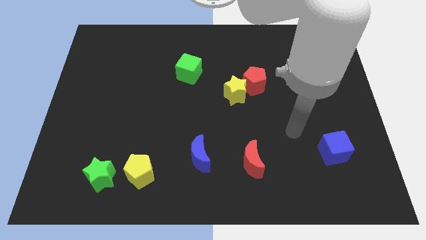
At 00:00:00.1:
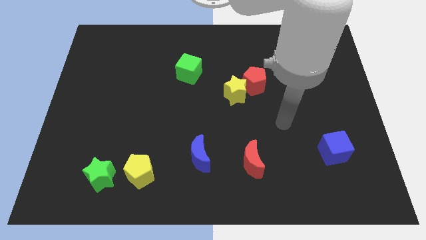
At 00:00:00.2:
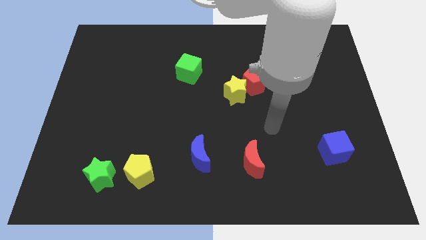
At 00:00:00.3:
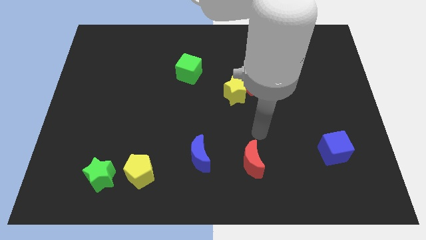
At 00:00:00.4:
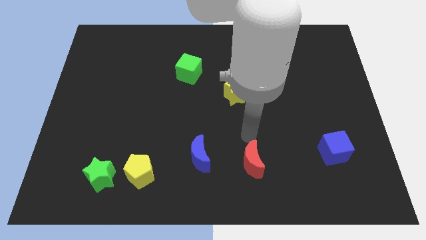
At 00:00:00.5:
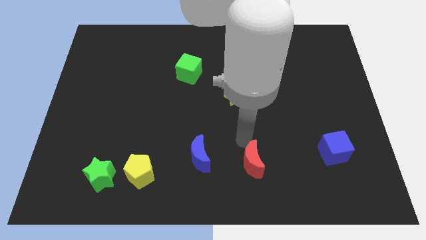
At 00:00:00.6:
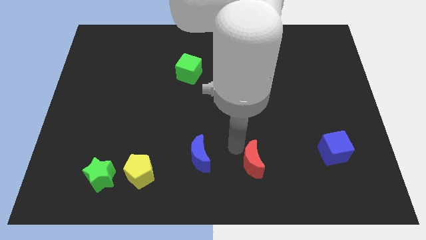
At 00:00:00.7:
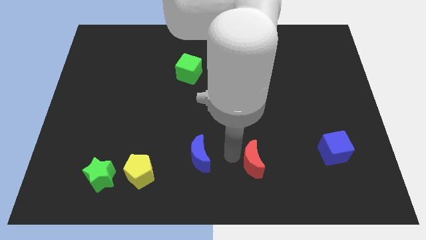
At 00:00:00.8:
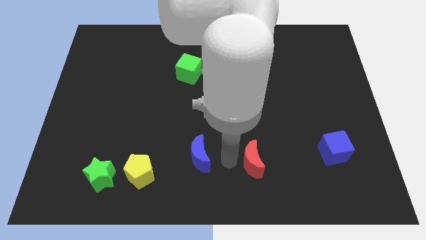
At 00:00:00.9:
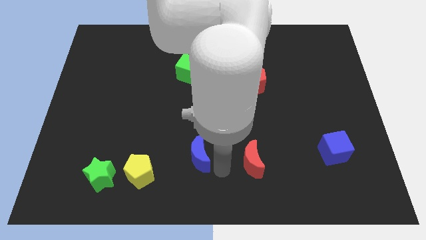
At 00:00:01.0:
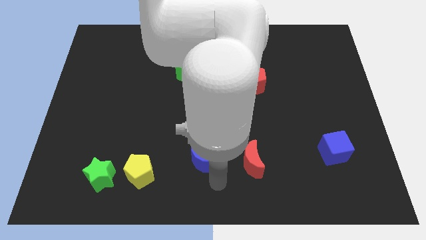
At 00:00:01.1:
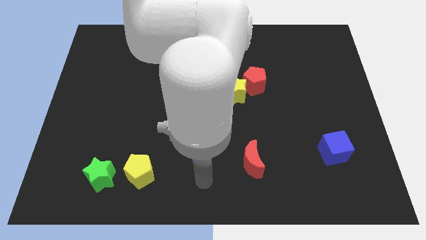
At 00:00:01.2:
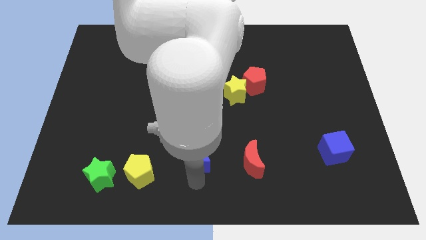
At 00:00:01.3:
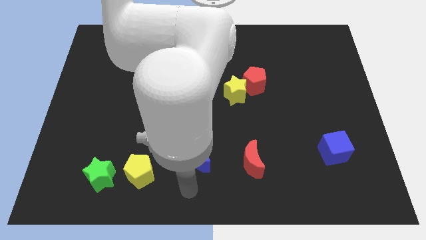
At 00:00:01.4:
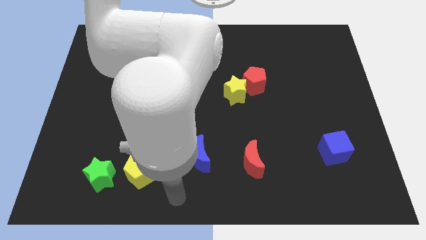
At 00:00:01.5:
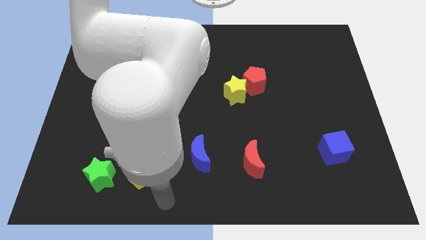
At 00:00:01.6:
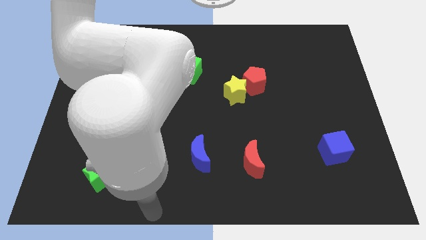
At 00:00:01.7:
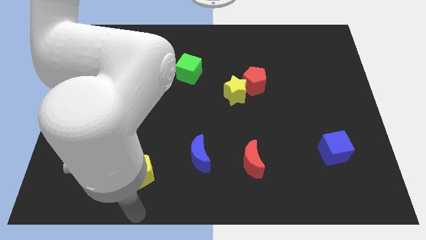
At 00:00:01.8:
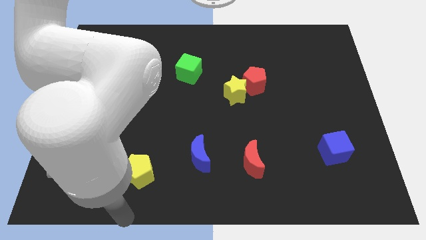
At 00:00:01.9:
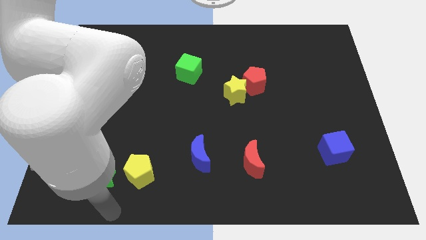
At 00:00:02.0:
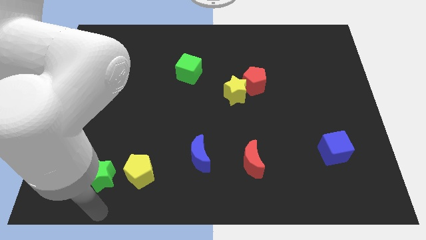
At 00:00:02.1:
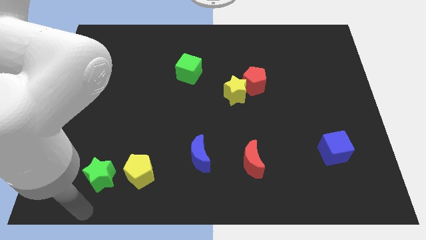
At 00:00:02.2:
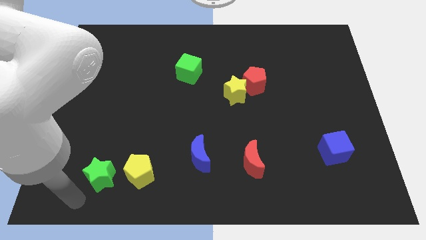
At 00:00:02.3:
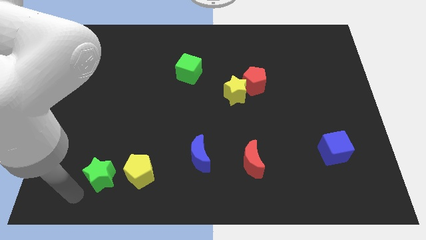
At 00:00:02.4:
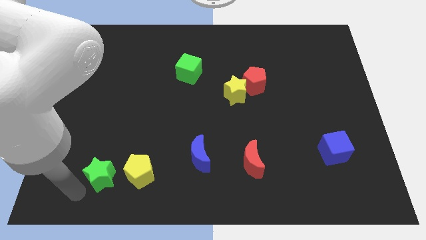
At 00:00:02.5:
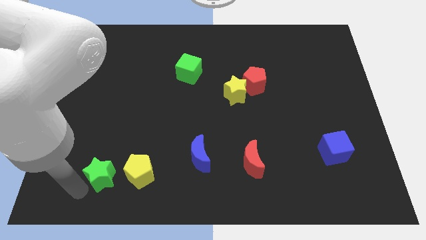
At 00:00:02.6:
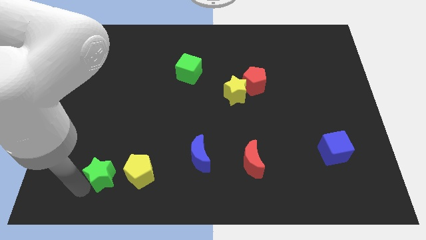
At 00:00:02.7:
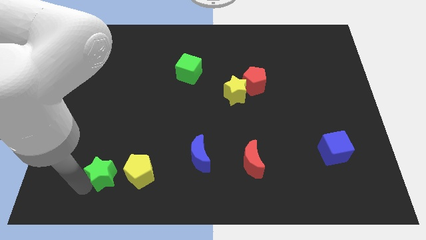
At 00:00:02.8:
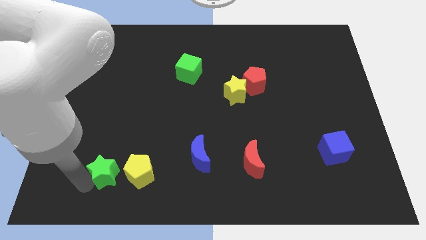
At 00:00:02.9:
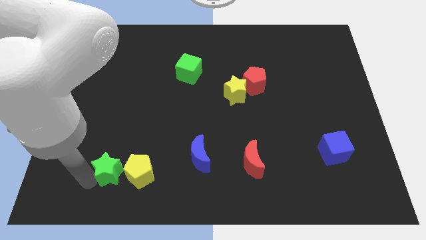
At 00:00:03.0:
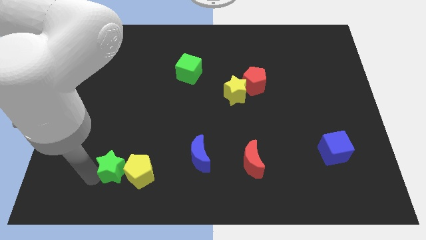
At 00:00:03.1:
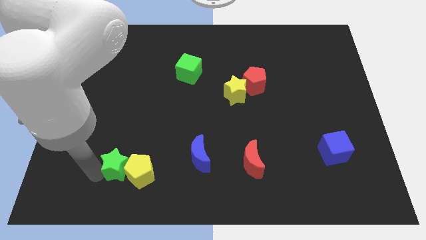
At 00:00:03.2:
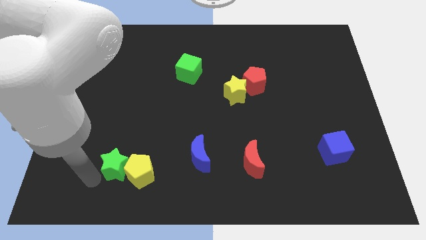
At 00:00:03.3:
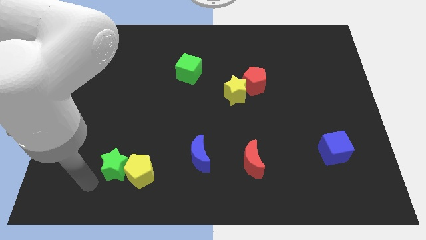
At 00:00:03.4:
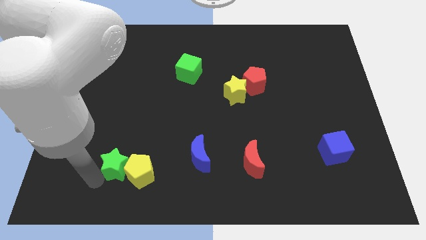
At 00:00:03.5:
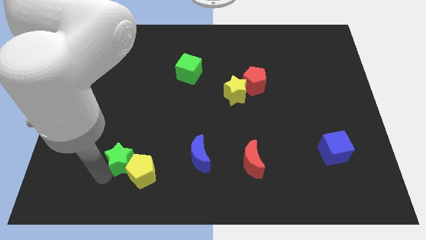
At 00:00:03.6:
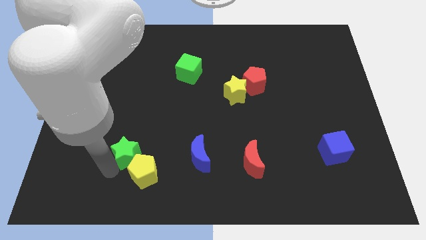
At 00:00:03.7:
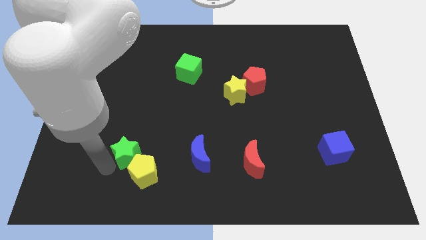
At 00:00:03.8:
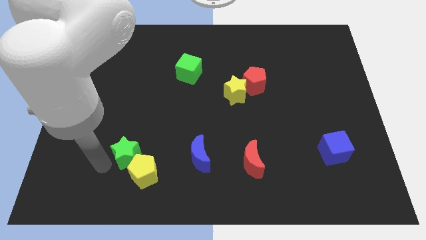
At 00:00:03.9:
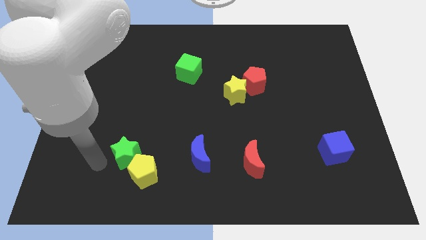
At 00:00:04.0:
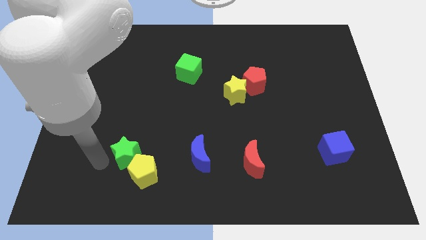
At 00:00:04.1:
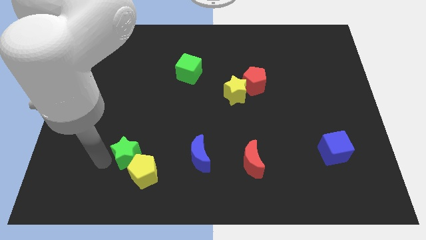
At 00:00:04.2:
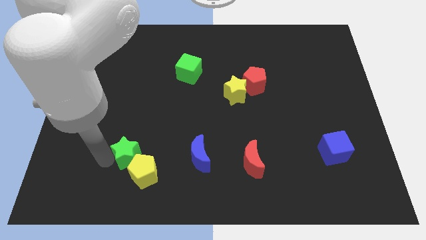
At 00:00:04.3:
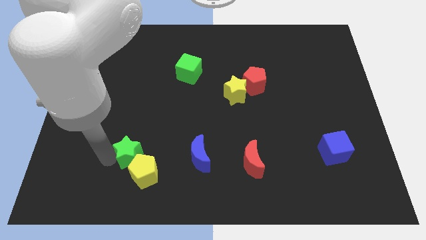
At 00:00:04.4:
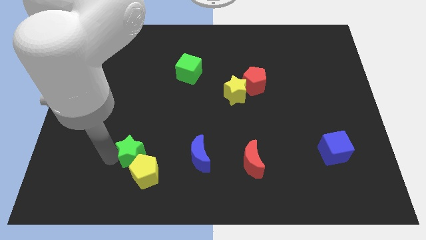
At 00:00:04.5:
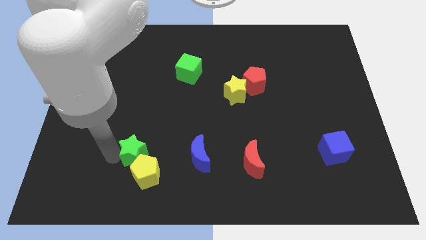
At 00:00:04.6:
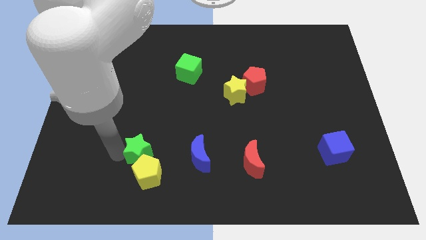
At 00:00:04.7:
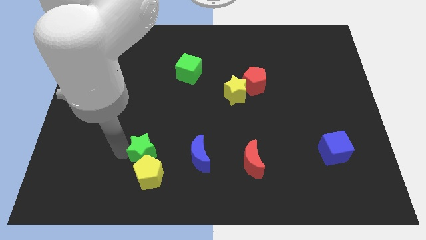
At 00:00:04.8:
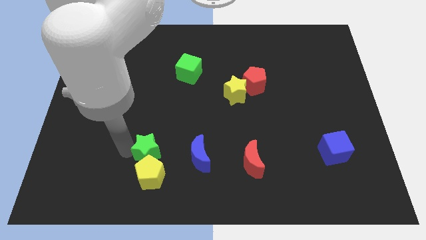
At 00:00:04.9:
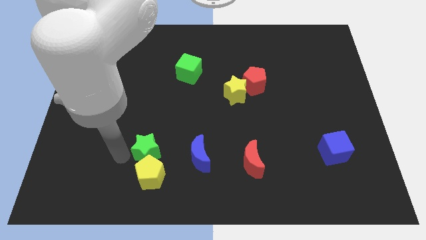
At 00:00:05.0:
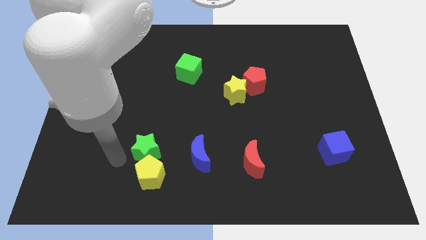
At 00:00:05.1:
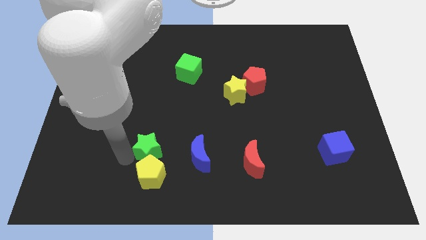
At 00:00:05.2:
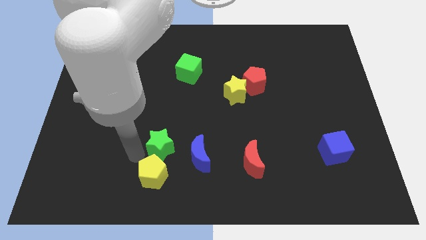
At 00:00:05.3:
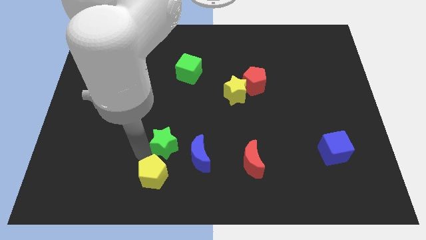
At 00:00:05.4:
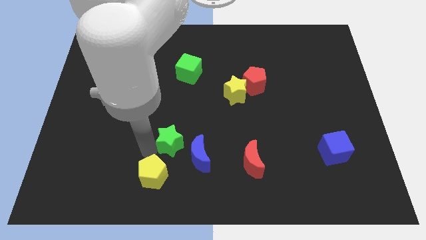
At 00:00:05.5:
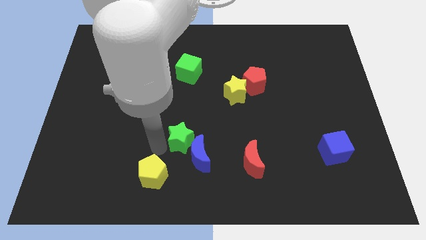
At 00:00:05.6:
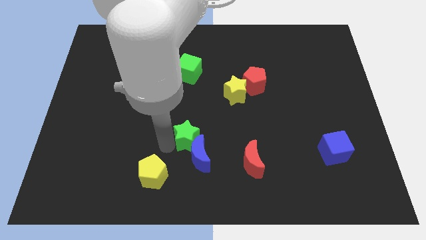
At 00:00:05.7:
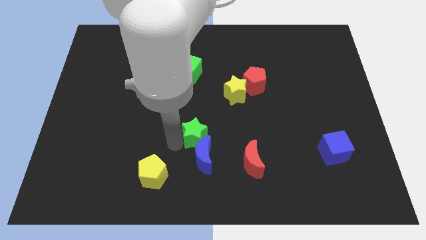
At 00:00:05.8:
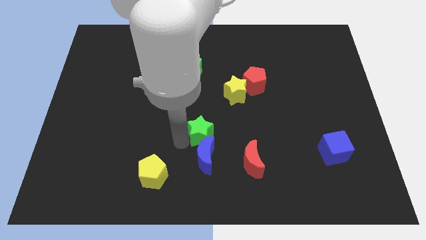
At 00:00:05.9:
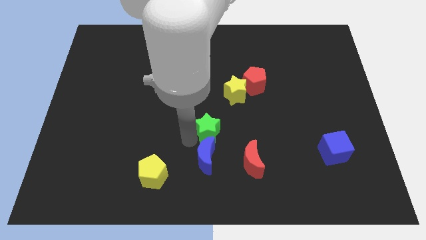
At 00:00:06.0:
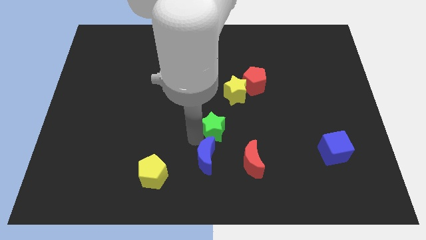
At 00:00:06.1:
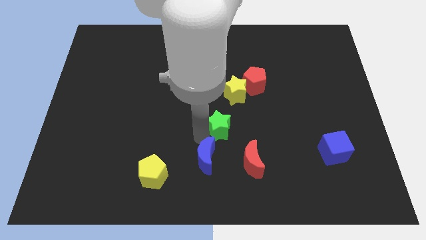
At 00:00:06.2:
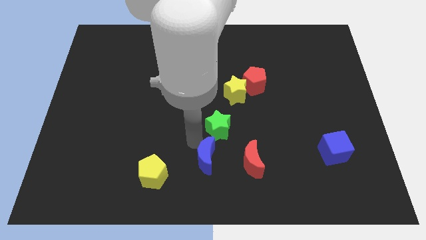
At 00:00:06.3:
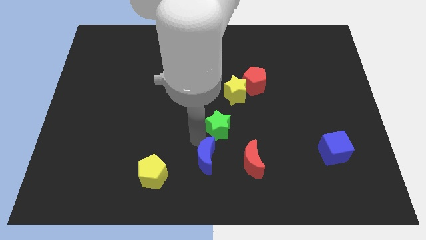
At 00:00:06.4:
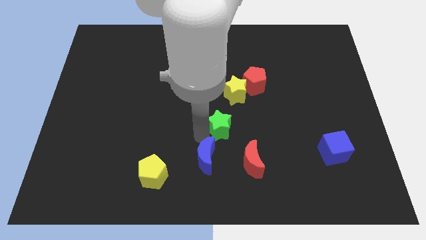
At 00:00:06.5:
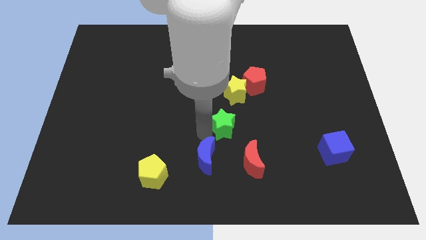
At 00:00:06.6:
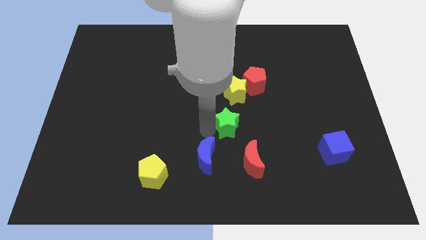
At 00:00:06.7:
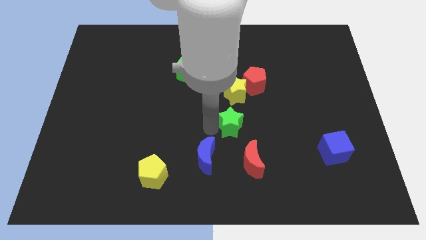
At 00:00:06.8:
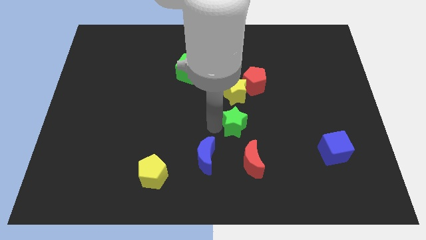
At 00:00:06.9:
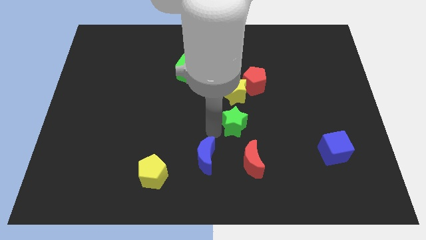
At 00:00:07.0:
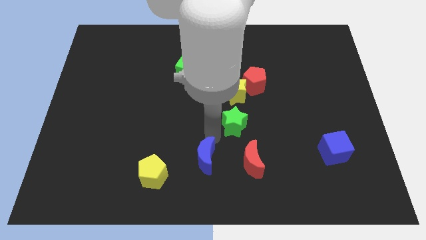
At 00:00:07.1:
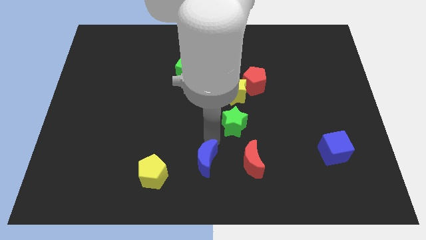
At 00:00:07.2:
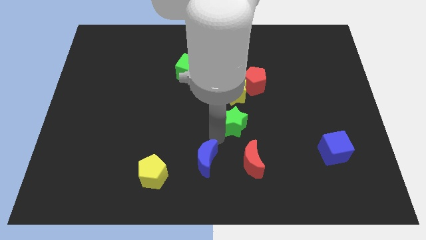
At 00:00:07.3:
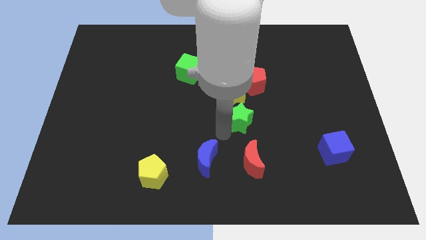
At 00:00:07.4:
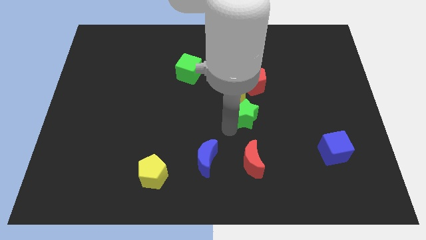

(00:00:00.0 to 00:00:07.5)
move the green star diagonally down and to the right of the yellow star
